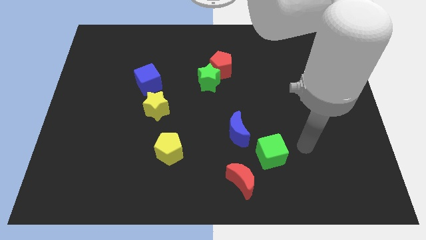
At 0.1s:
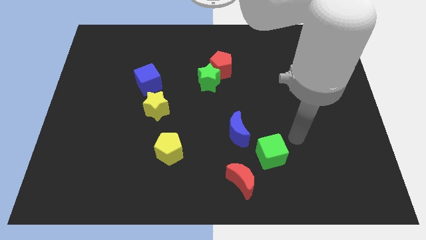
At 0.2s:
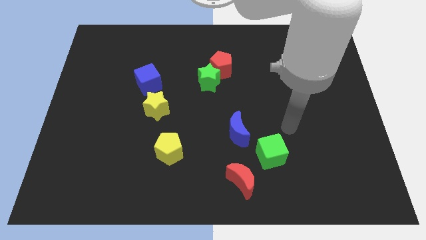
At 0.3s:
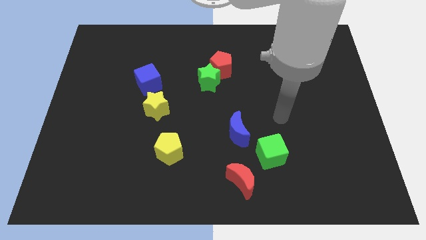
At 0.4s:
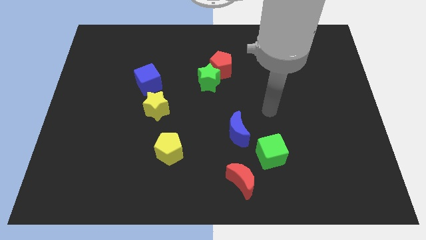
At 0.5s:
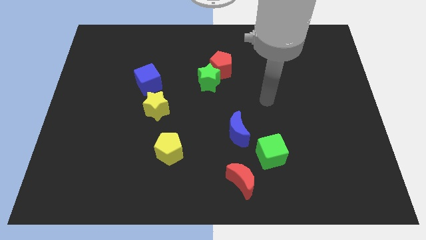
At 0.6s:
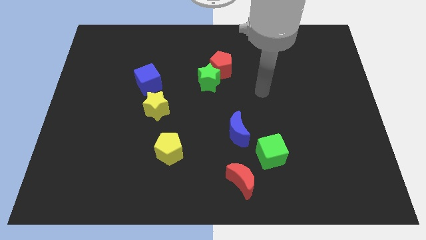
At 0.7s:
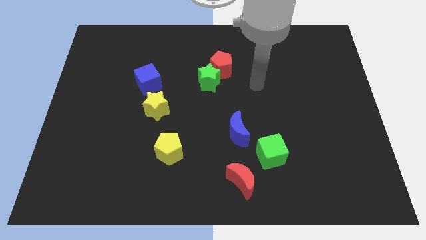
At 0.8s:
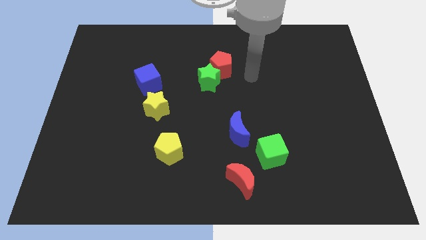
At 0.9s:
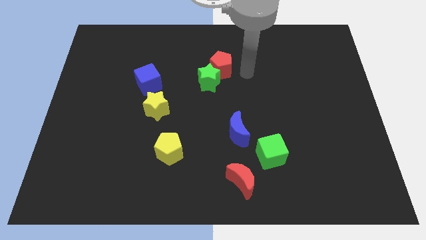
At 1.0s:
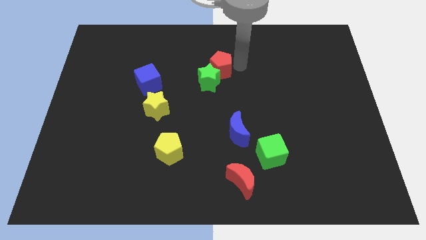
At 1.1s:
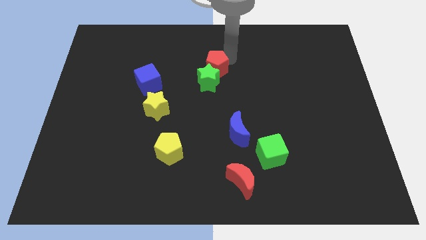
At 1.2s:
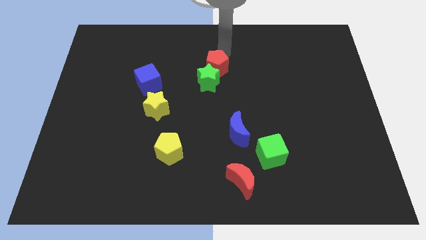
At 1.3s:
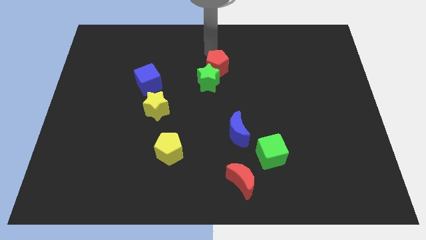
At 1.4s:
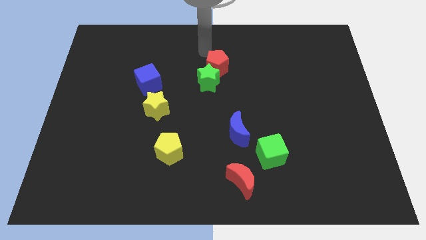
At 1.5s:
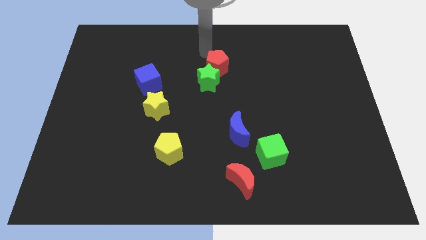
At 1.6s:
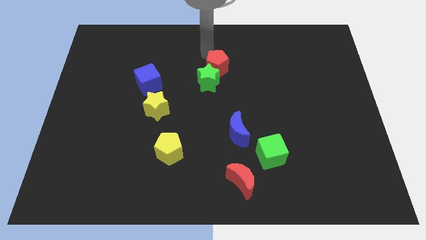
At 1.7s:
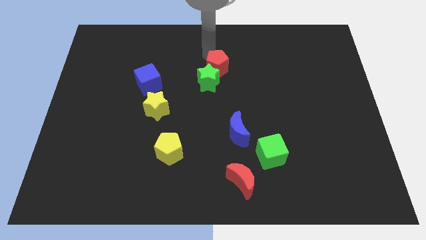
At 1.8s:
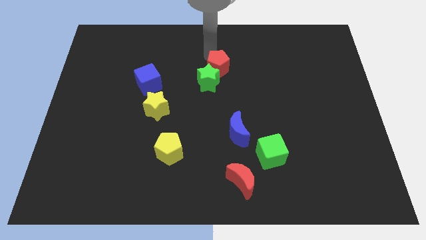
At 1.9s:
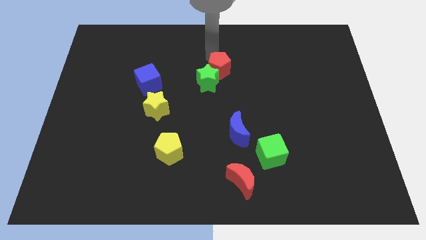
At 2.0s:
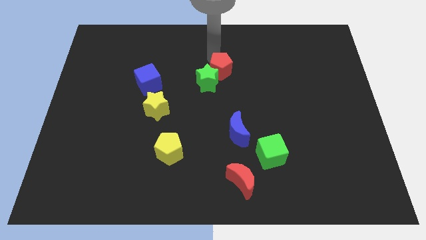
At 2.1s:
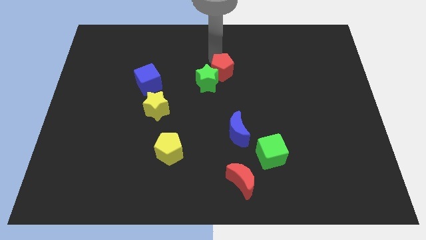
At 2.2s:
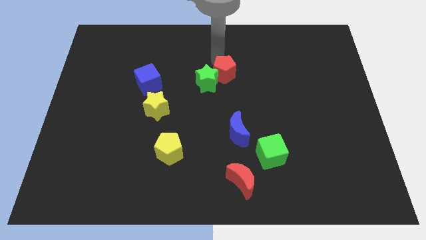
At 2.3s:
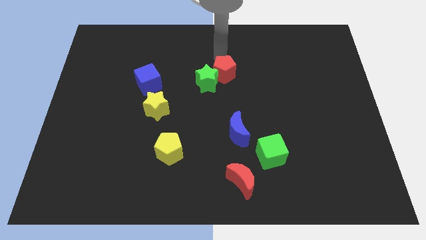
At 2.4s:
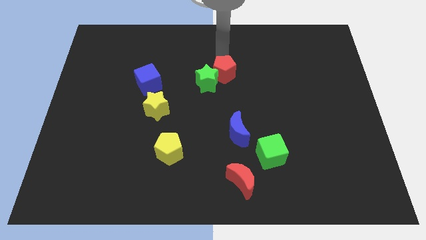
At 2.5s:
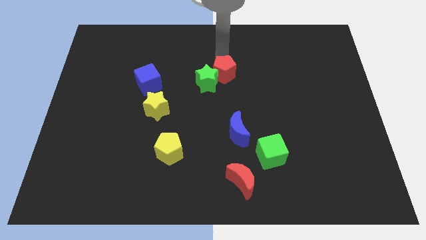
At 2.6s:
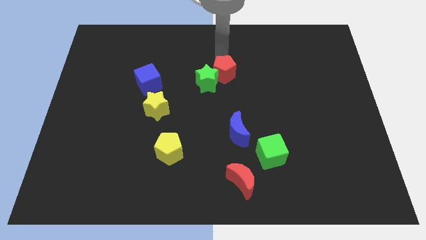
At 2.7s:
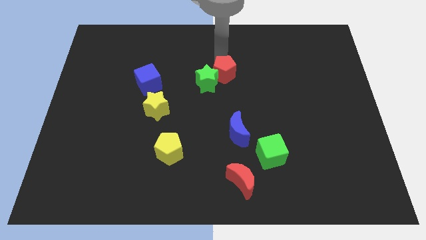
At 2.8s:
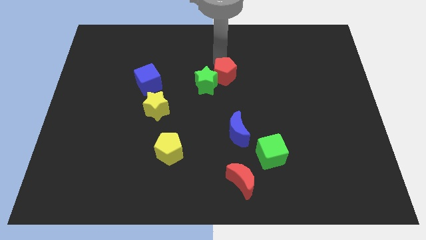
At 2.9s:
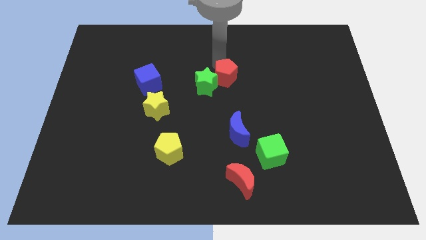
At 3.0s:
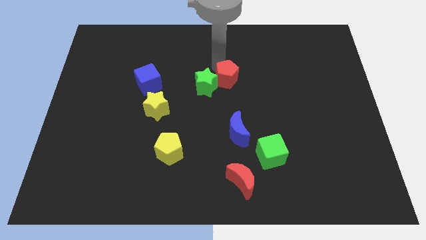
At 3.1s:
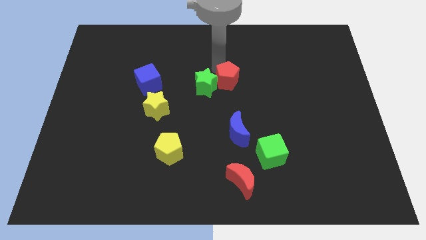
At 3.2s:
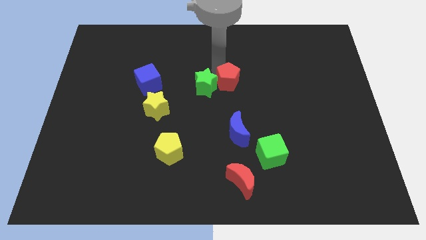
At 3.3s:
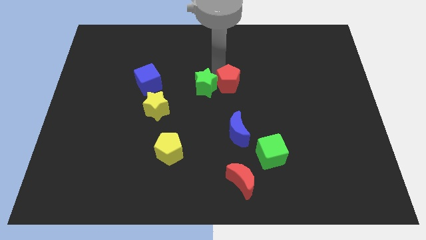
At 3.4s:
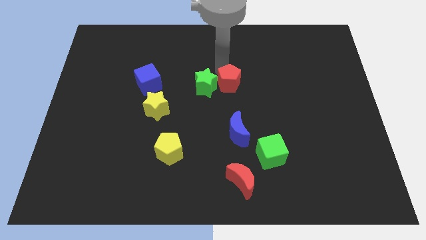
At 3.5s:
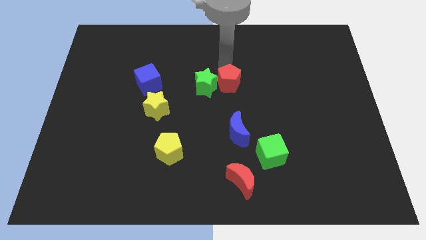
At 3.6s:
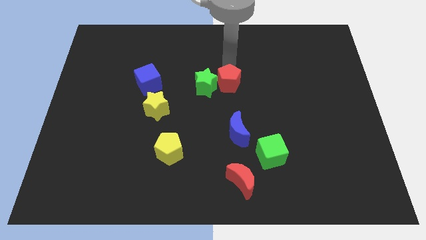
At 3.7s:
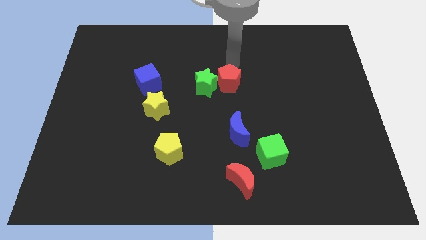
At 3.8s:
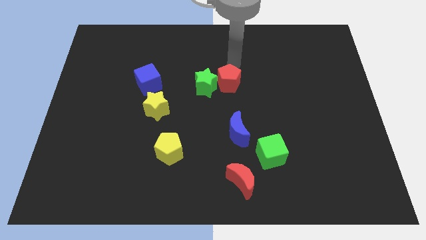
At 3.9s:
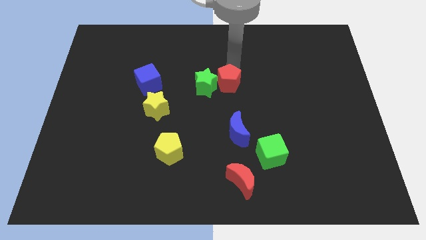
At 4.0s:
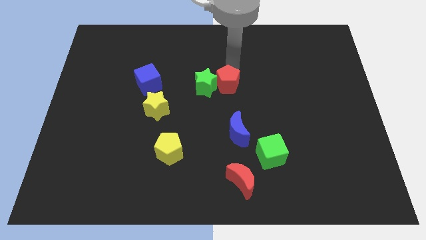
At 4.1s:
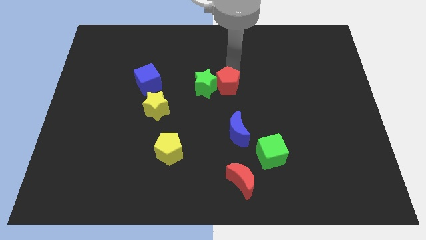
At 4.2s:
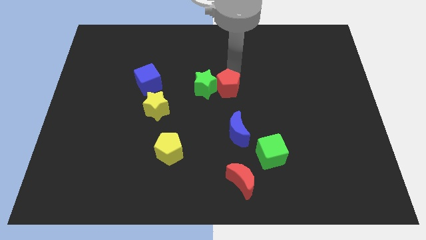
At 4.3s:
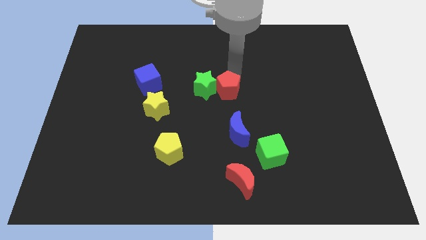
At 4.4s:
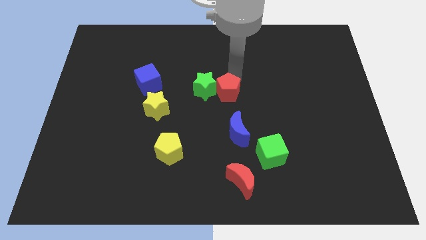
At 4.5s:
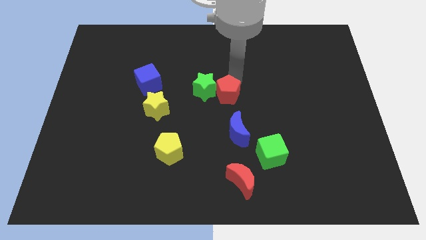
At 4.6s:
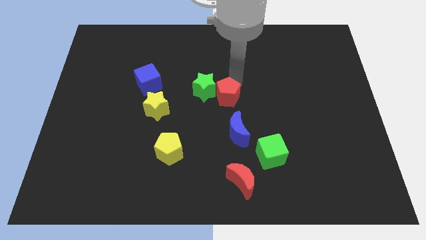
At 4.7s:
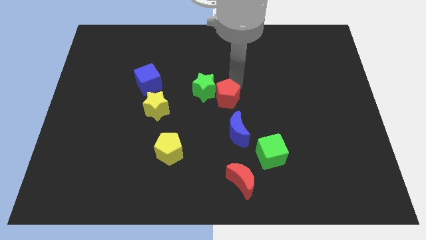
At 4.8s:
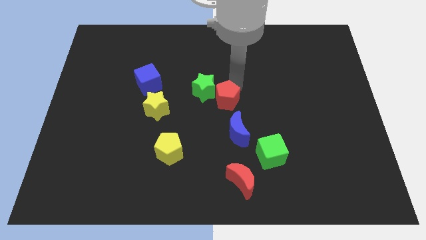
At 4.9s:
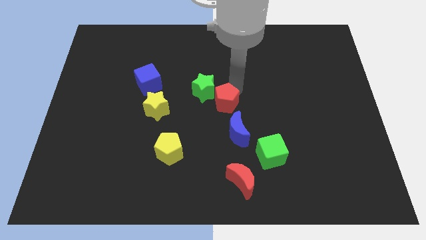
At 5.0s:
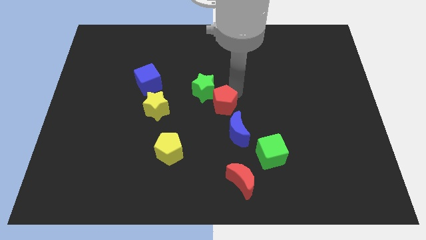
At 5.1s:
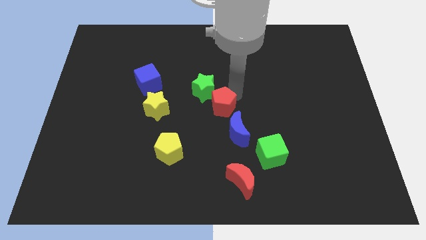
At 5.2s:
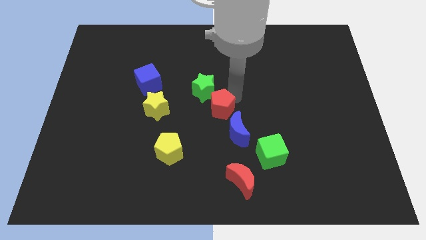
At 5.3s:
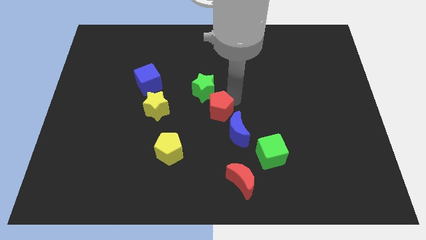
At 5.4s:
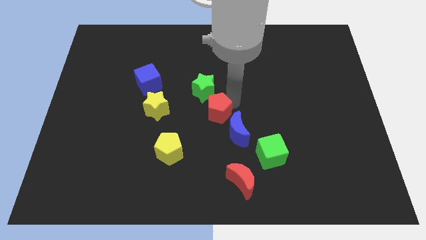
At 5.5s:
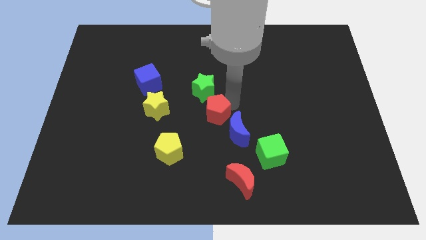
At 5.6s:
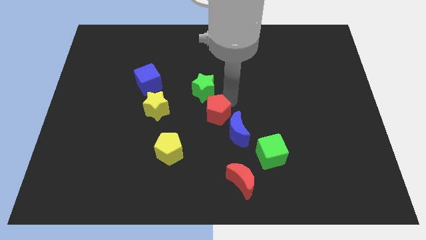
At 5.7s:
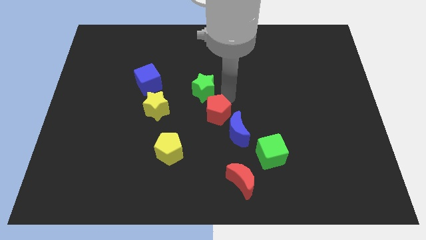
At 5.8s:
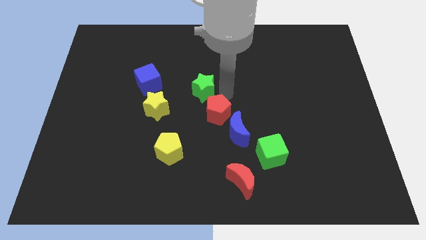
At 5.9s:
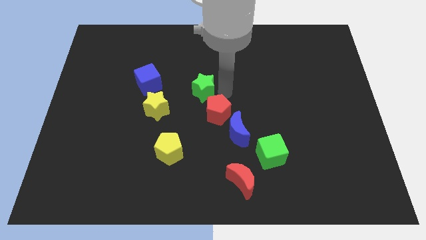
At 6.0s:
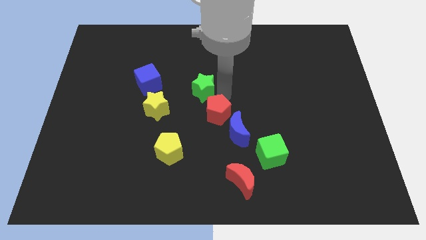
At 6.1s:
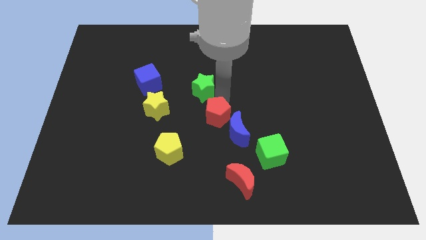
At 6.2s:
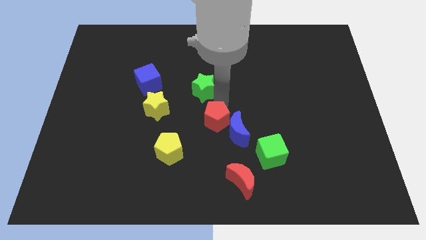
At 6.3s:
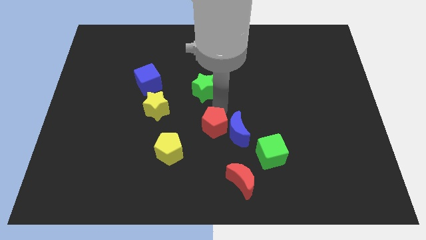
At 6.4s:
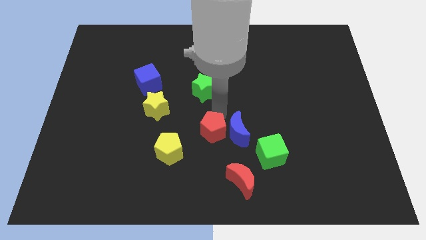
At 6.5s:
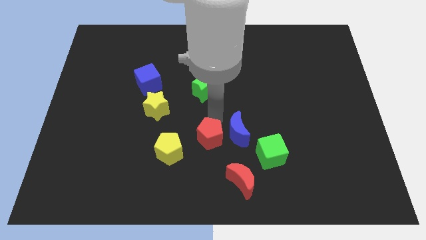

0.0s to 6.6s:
slide the red pentagon just left of the green cube

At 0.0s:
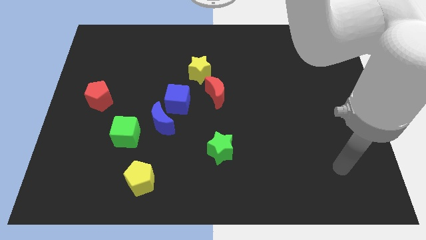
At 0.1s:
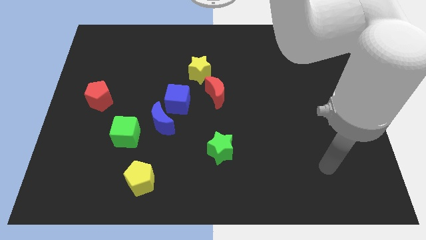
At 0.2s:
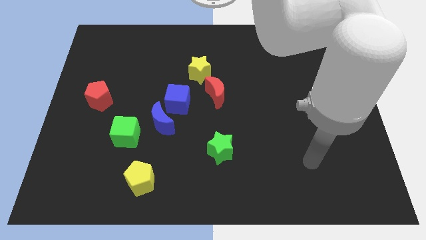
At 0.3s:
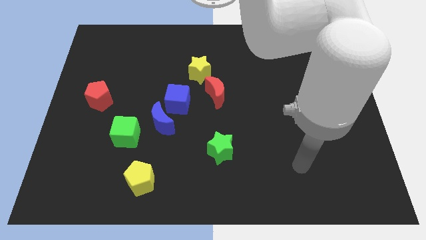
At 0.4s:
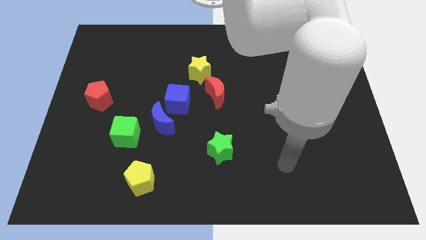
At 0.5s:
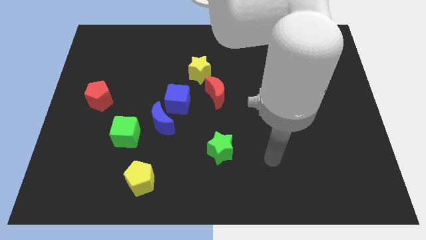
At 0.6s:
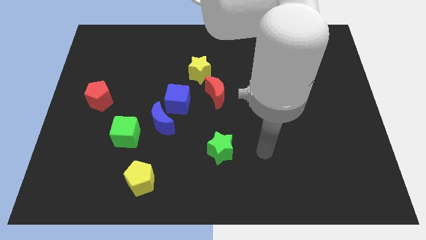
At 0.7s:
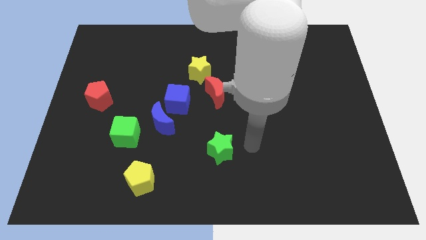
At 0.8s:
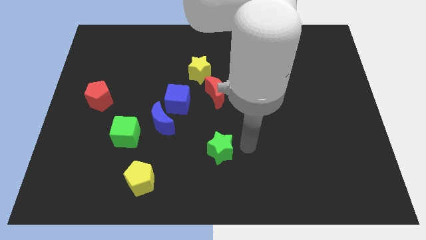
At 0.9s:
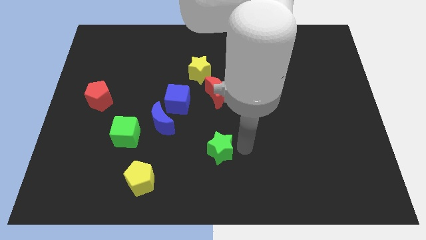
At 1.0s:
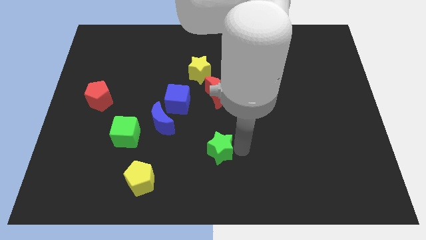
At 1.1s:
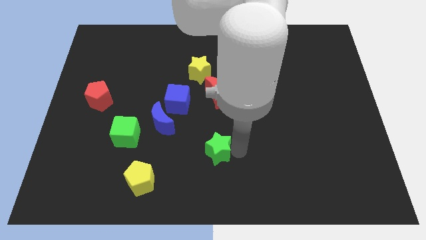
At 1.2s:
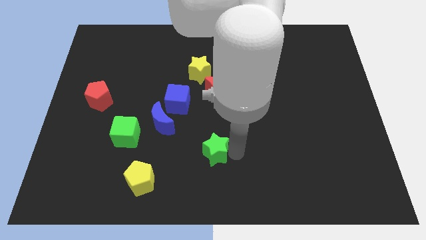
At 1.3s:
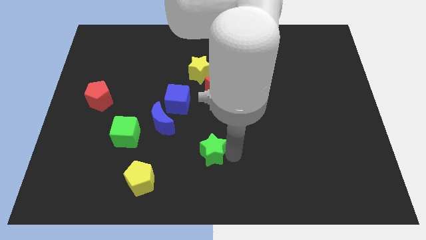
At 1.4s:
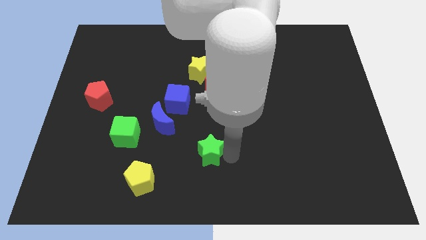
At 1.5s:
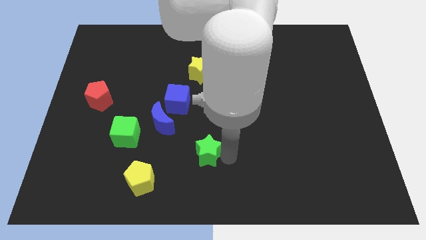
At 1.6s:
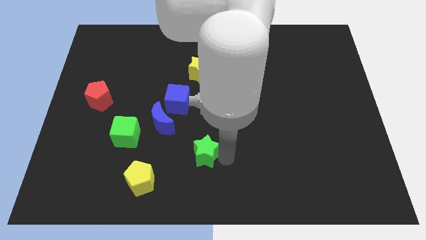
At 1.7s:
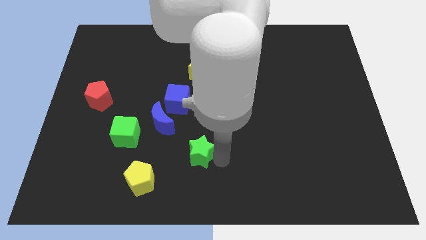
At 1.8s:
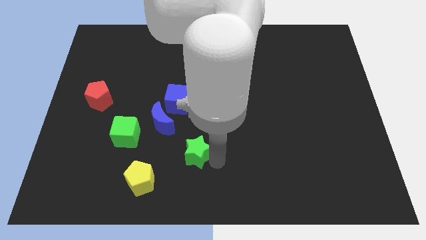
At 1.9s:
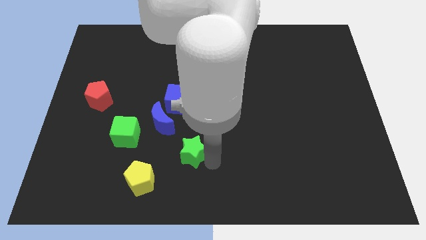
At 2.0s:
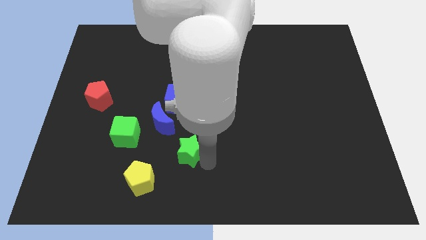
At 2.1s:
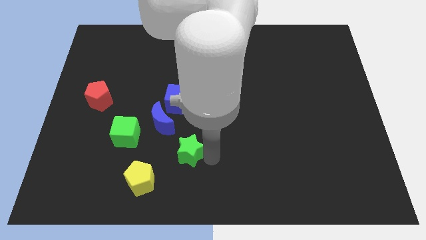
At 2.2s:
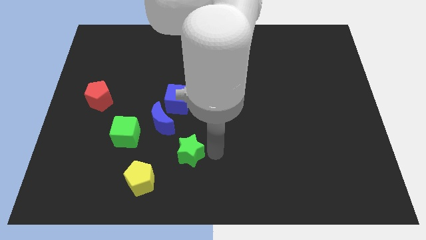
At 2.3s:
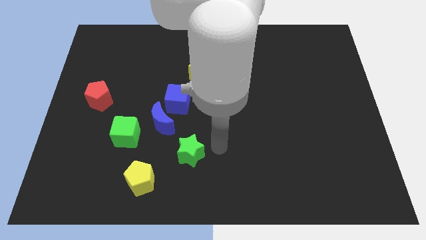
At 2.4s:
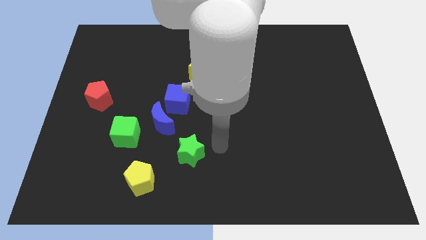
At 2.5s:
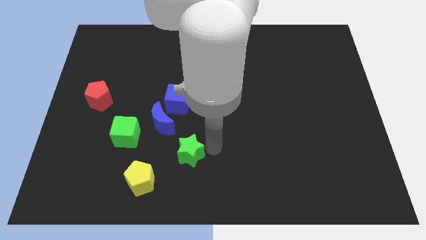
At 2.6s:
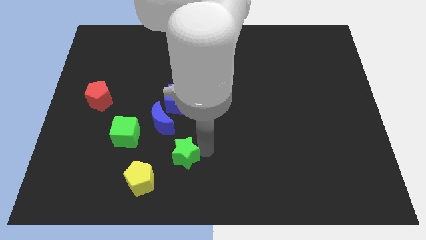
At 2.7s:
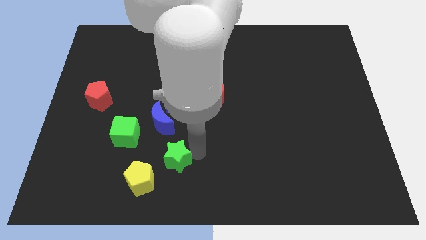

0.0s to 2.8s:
slide the green star to the bottom of the blue moon
